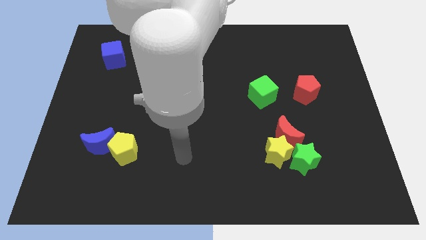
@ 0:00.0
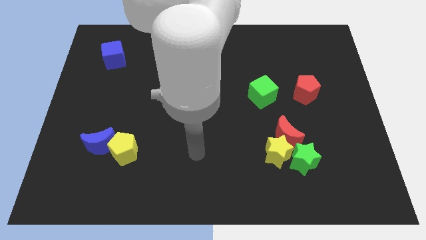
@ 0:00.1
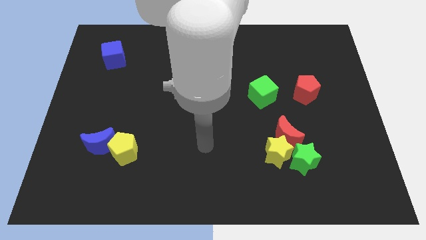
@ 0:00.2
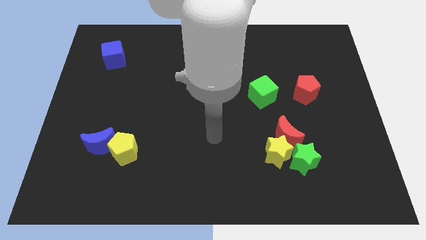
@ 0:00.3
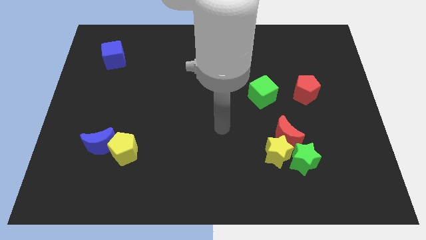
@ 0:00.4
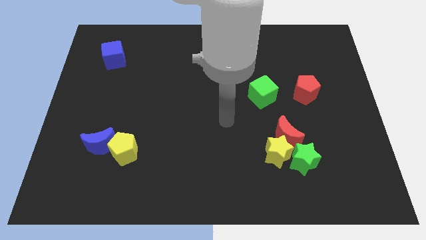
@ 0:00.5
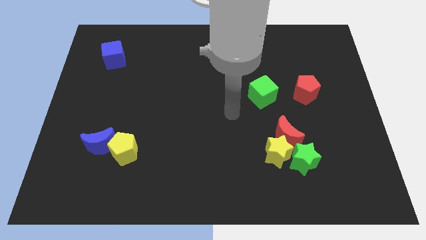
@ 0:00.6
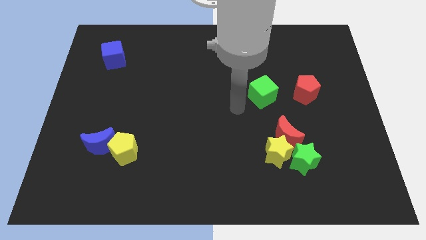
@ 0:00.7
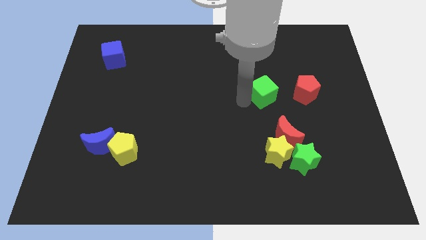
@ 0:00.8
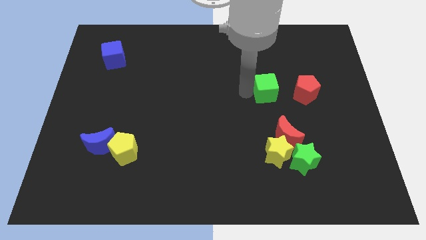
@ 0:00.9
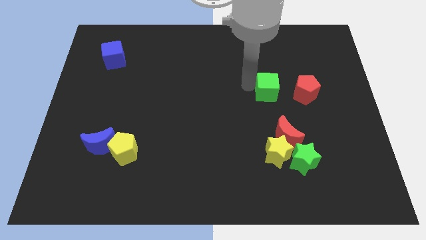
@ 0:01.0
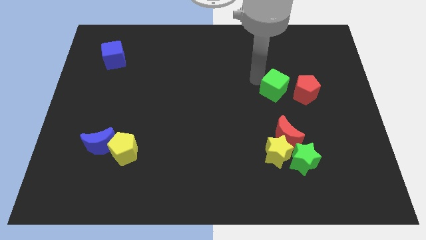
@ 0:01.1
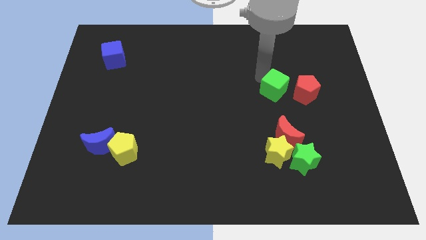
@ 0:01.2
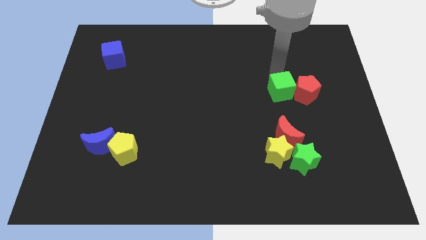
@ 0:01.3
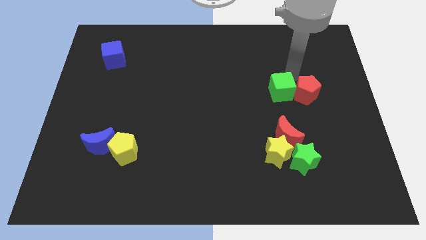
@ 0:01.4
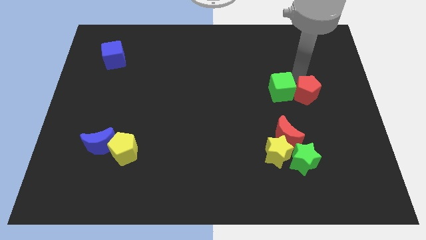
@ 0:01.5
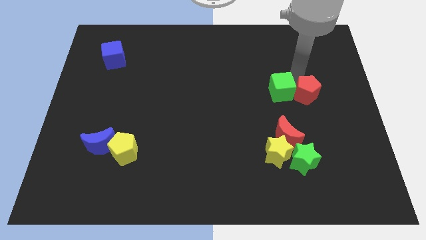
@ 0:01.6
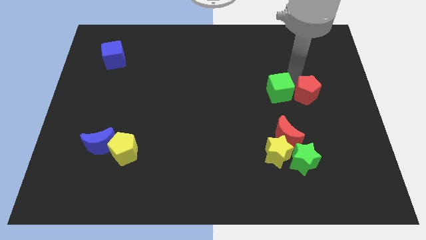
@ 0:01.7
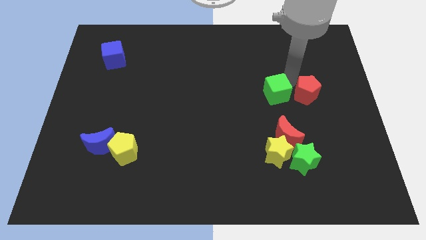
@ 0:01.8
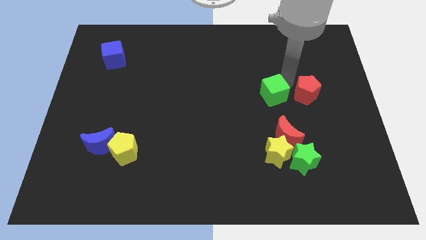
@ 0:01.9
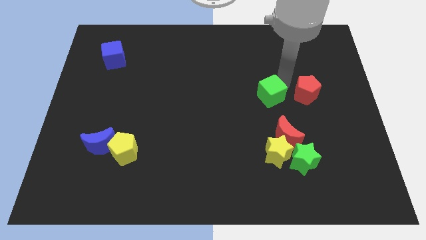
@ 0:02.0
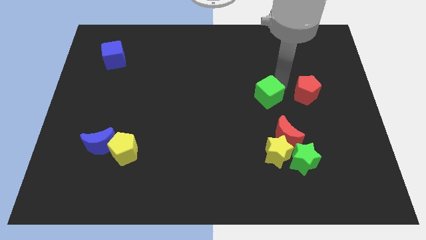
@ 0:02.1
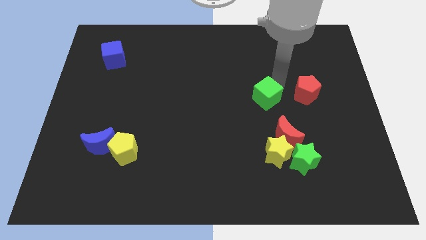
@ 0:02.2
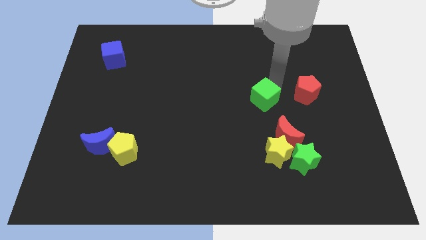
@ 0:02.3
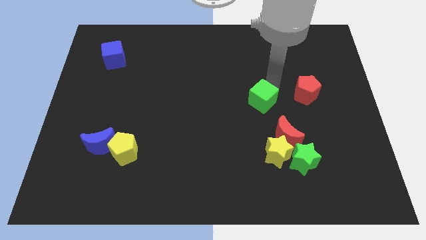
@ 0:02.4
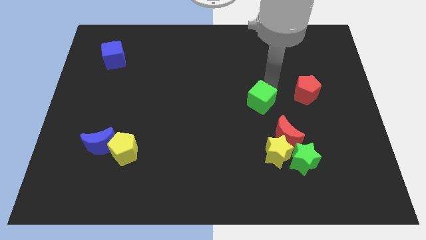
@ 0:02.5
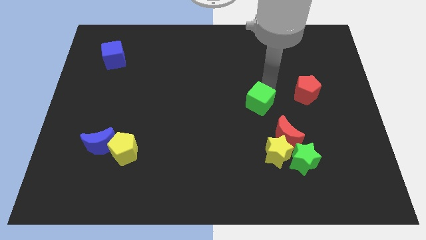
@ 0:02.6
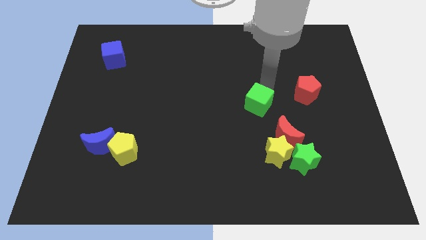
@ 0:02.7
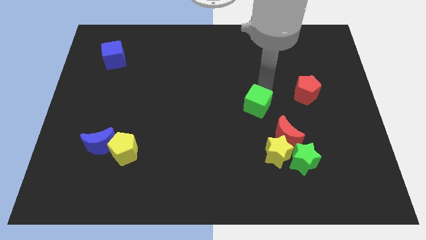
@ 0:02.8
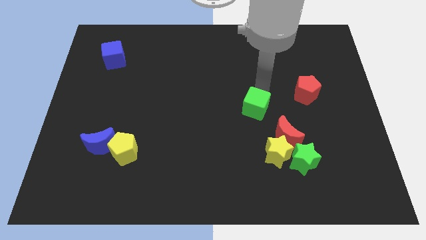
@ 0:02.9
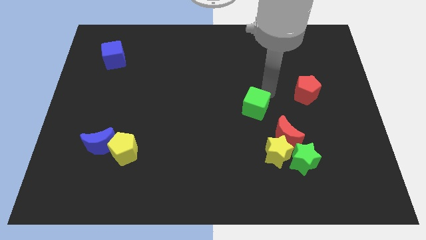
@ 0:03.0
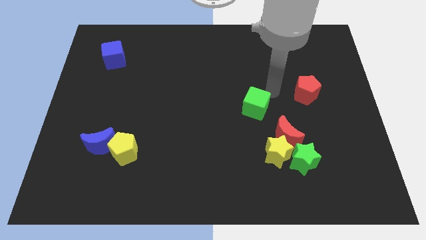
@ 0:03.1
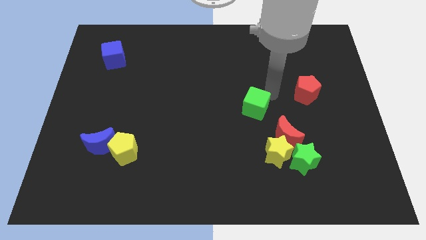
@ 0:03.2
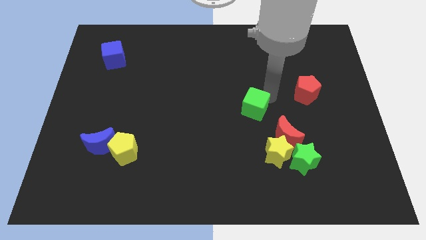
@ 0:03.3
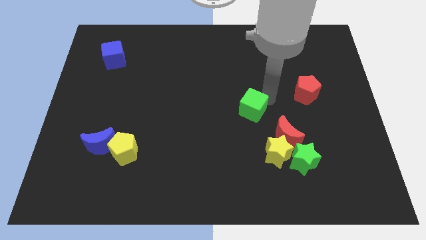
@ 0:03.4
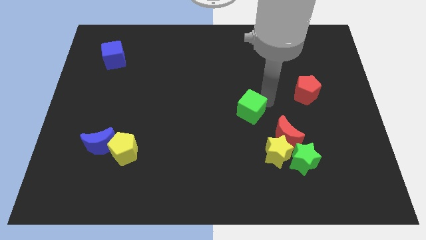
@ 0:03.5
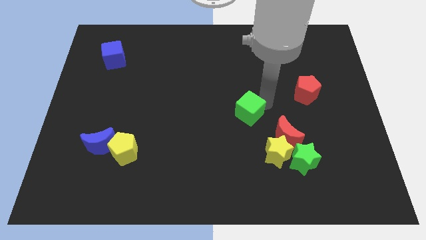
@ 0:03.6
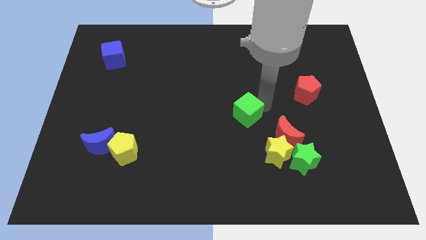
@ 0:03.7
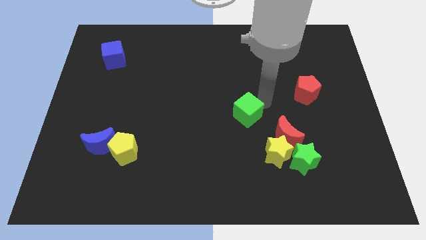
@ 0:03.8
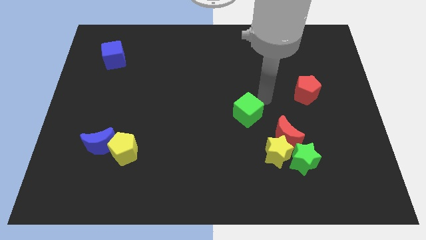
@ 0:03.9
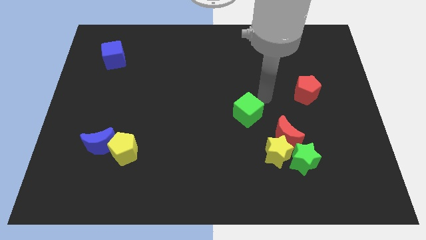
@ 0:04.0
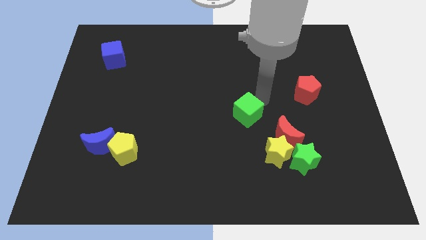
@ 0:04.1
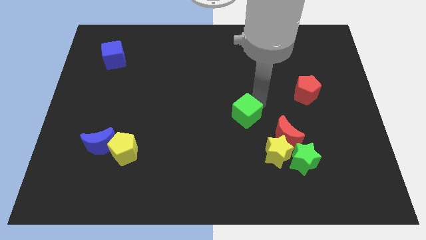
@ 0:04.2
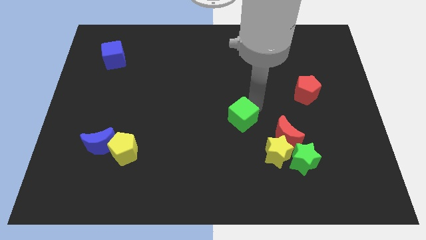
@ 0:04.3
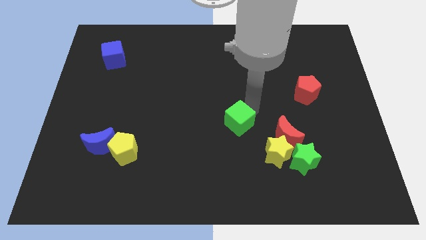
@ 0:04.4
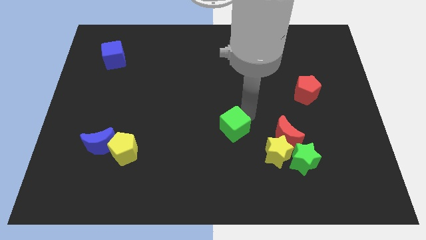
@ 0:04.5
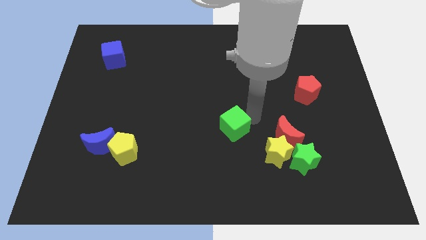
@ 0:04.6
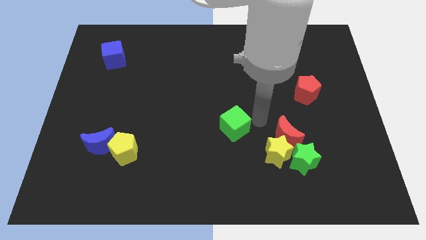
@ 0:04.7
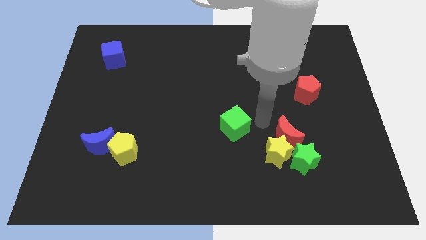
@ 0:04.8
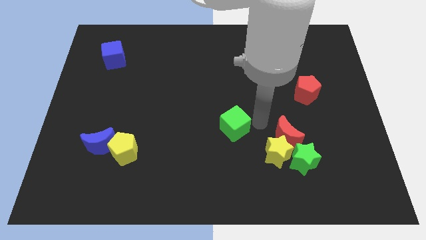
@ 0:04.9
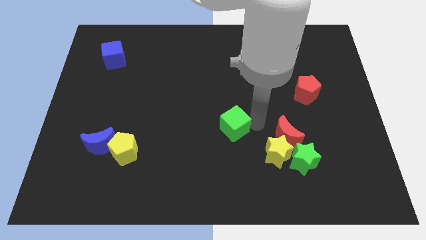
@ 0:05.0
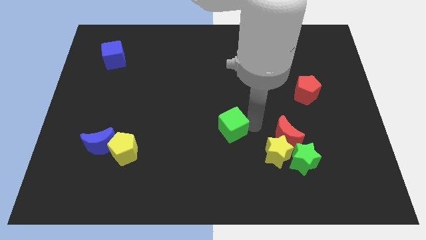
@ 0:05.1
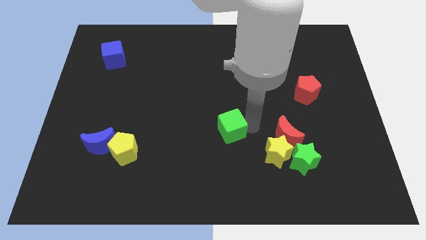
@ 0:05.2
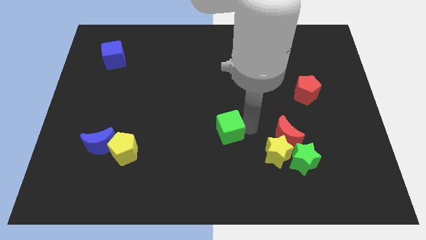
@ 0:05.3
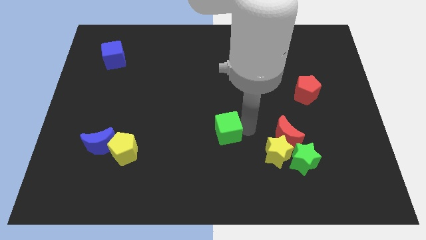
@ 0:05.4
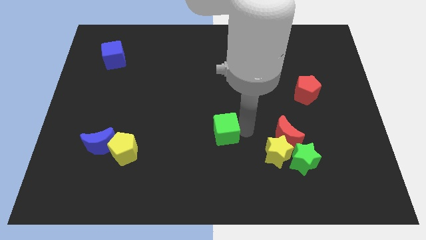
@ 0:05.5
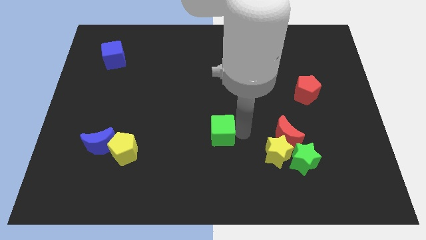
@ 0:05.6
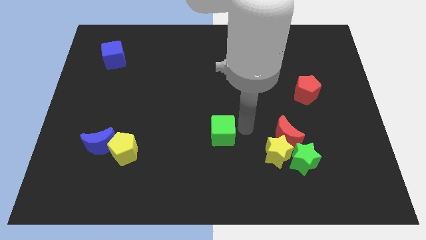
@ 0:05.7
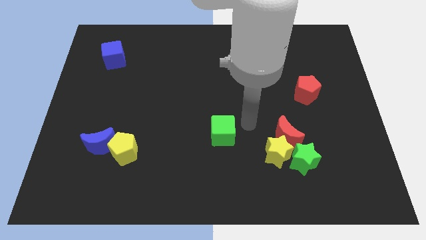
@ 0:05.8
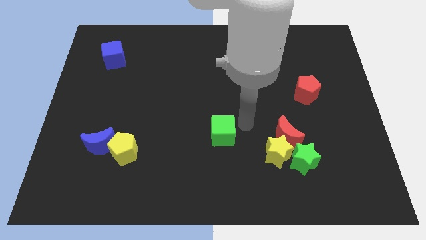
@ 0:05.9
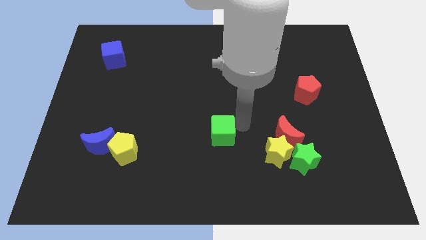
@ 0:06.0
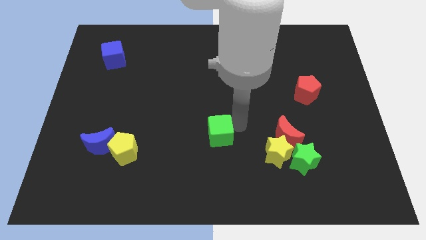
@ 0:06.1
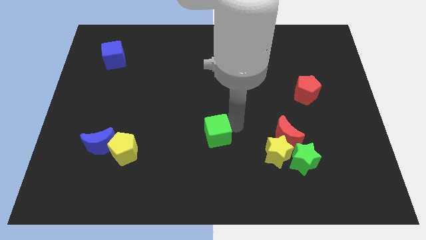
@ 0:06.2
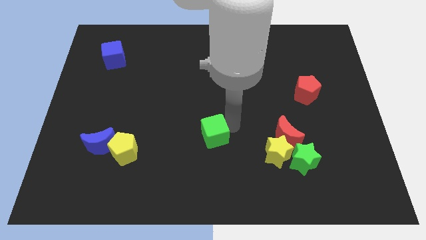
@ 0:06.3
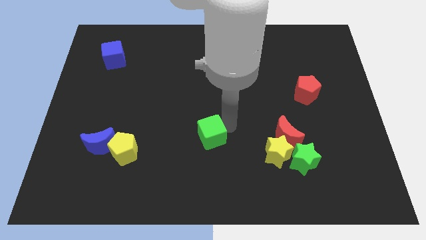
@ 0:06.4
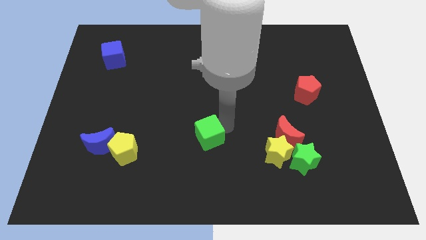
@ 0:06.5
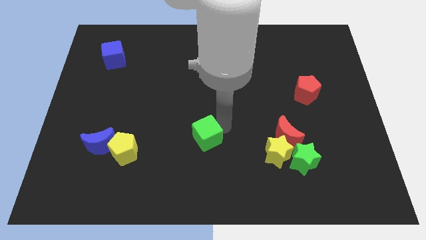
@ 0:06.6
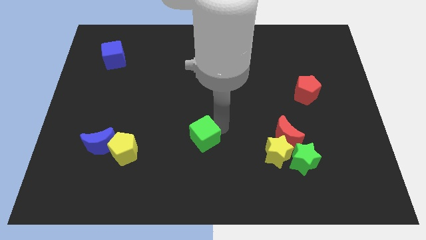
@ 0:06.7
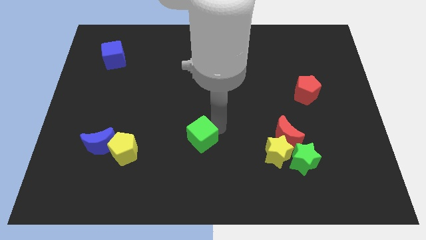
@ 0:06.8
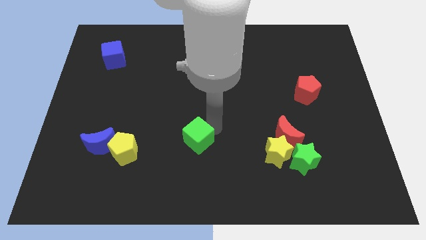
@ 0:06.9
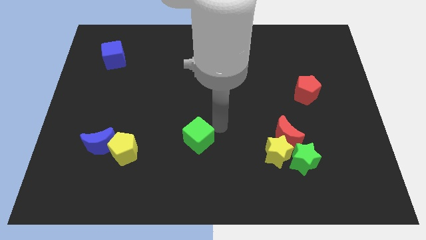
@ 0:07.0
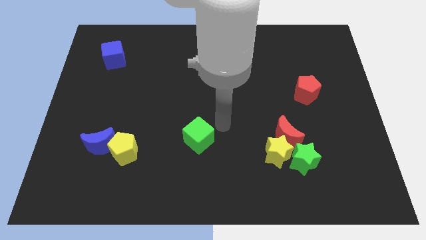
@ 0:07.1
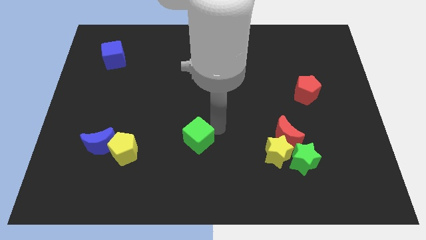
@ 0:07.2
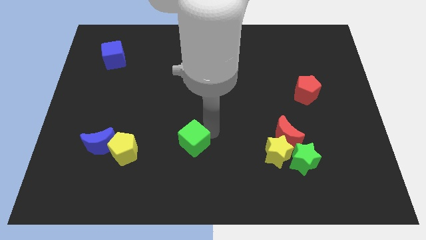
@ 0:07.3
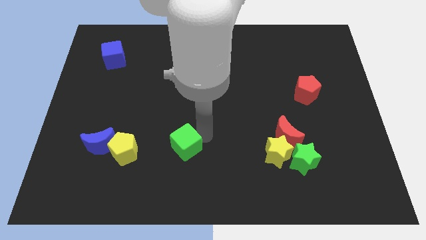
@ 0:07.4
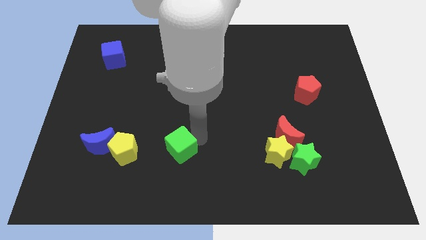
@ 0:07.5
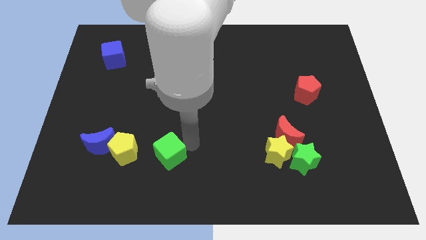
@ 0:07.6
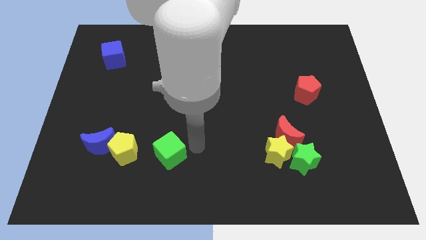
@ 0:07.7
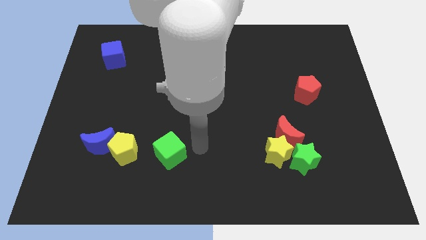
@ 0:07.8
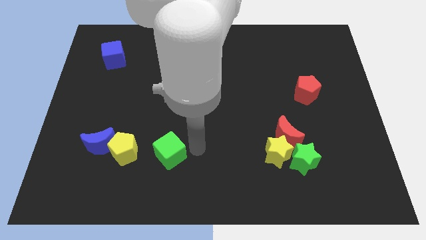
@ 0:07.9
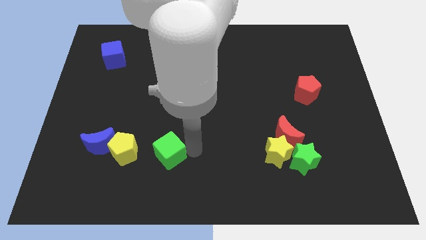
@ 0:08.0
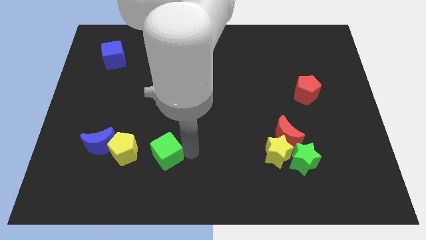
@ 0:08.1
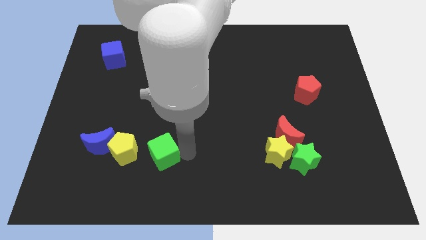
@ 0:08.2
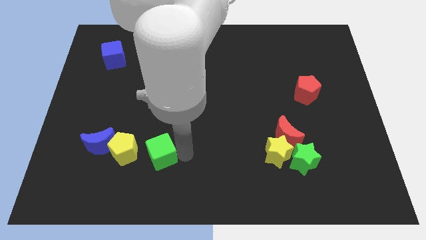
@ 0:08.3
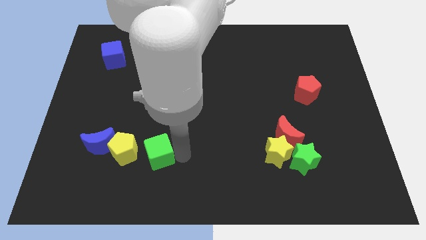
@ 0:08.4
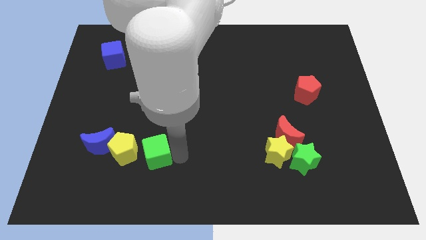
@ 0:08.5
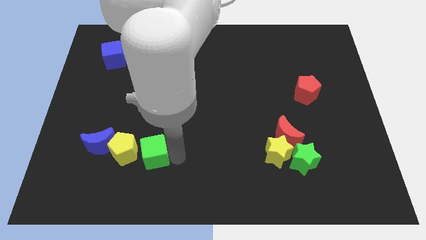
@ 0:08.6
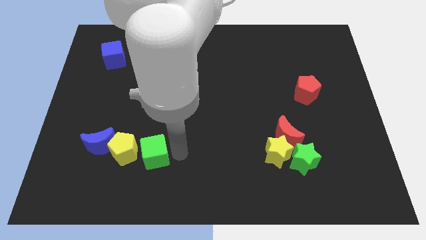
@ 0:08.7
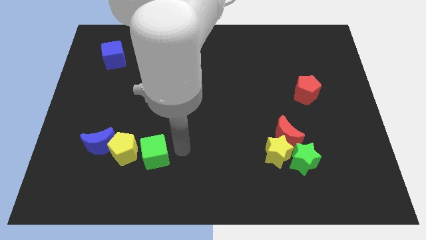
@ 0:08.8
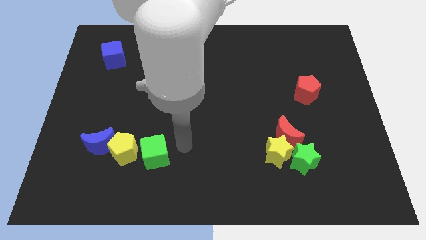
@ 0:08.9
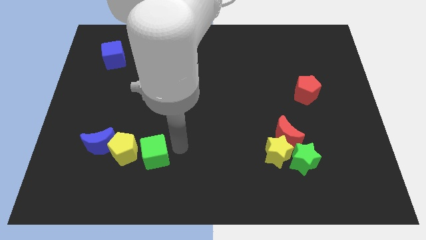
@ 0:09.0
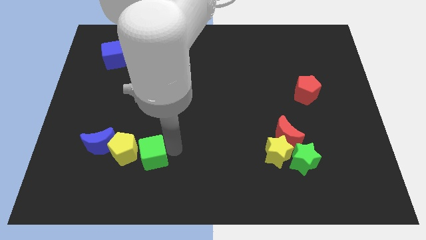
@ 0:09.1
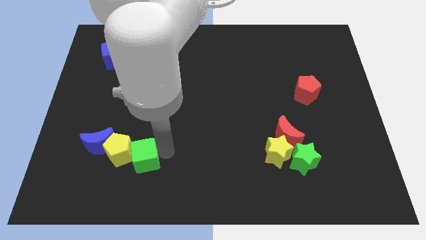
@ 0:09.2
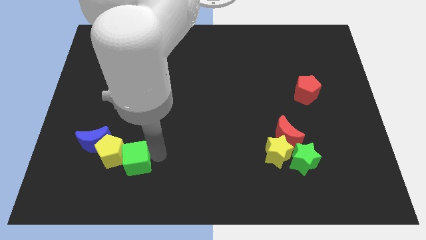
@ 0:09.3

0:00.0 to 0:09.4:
slide the green cube diagonally down and to the right of the blue moon
